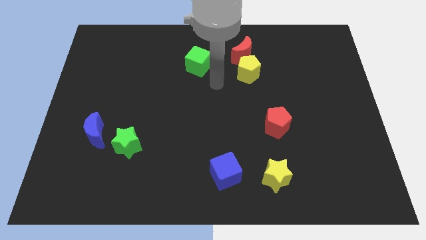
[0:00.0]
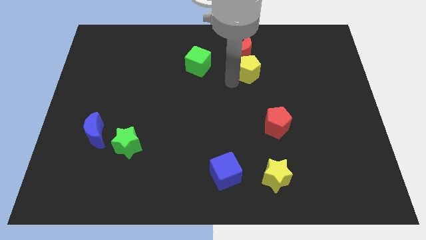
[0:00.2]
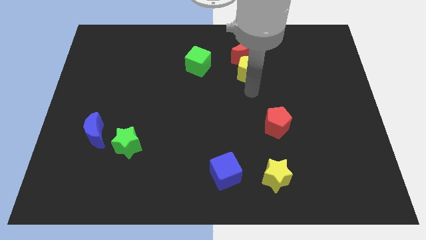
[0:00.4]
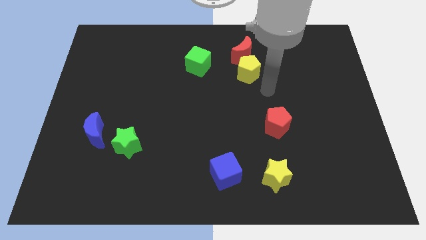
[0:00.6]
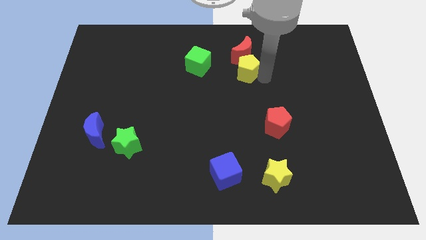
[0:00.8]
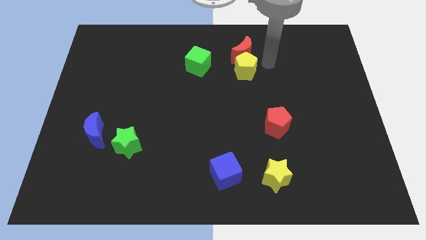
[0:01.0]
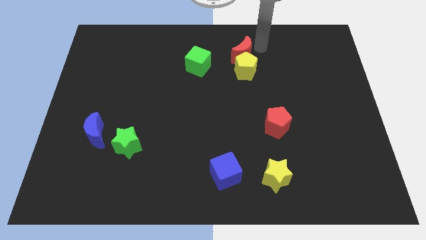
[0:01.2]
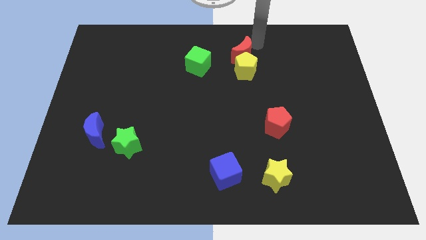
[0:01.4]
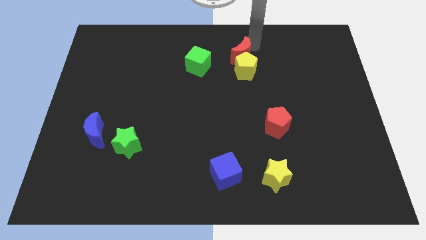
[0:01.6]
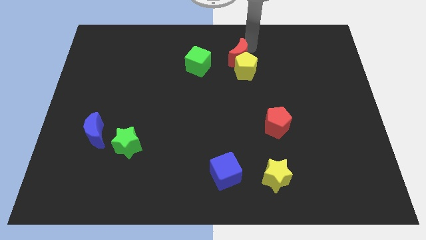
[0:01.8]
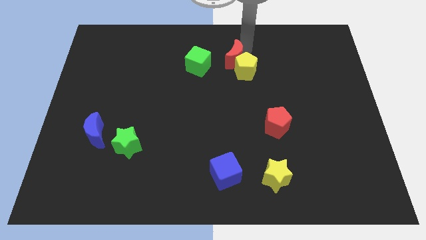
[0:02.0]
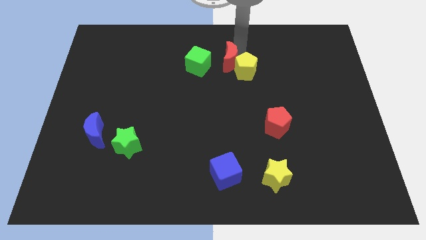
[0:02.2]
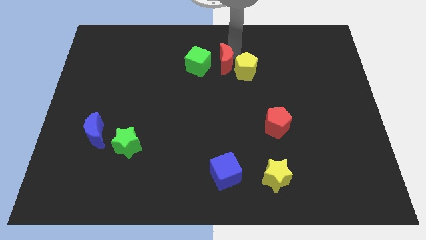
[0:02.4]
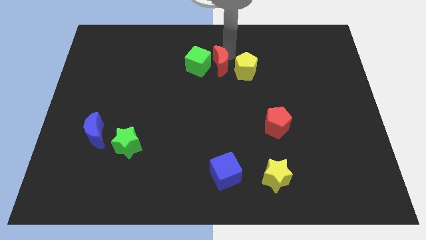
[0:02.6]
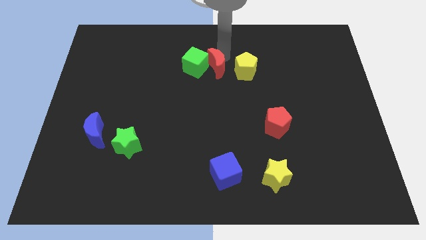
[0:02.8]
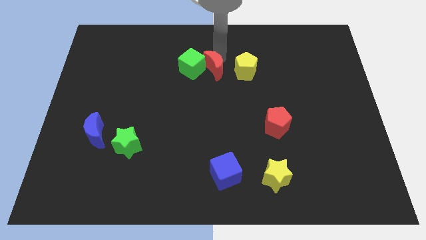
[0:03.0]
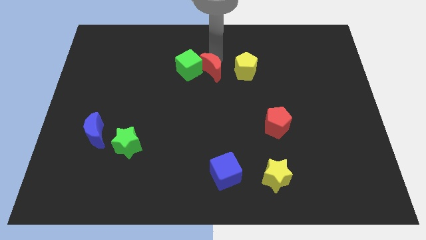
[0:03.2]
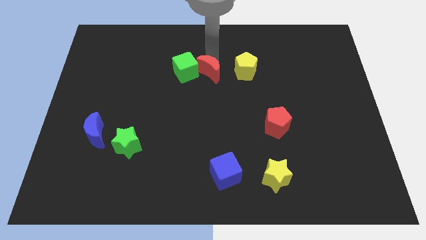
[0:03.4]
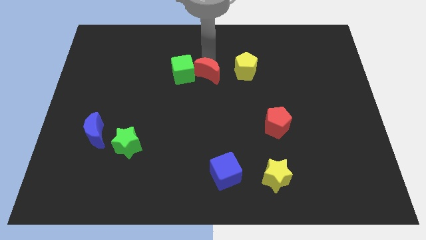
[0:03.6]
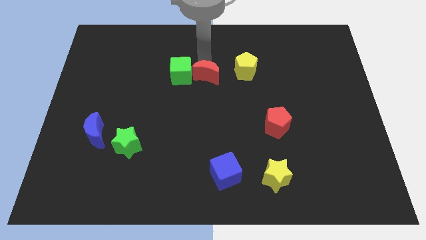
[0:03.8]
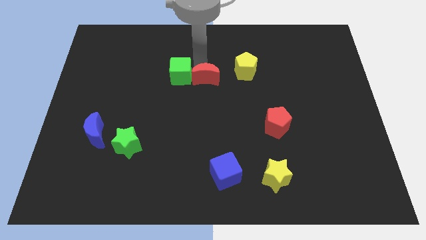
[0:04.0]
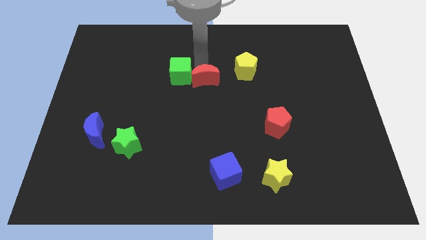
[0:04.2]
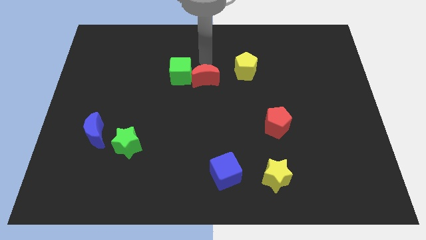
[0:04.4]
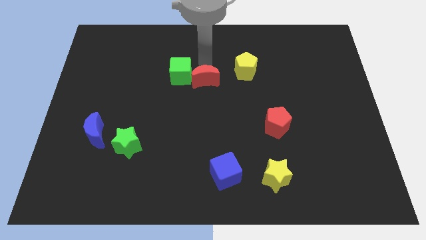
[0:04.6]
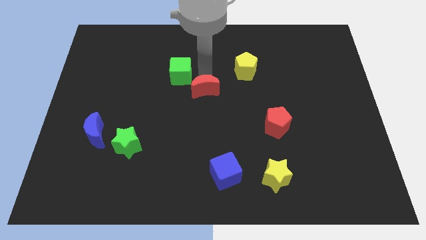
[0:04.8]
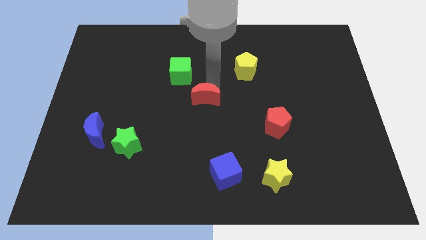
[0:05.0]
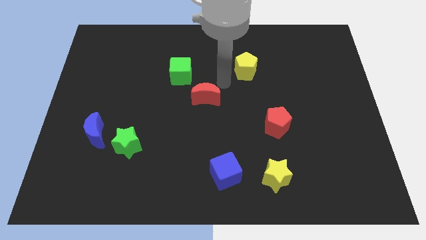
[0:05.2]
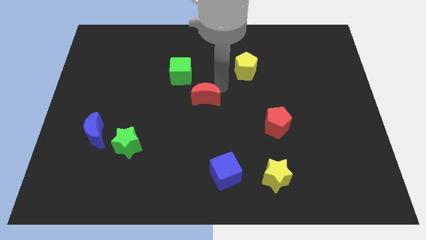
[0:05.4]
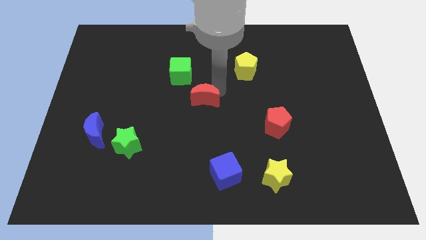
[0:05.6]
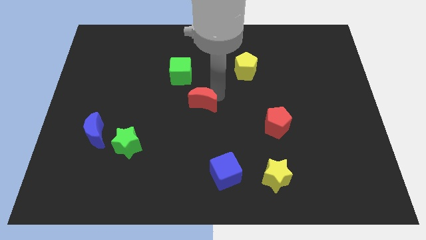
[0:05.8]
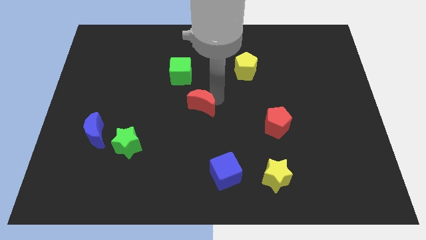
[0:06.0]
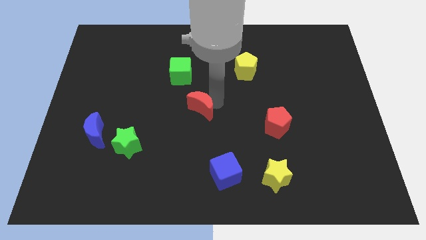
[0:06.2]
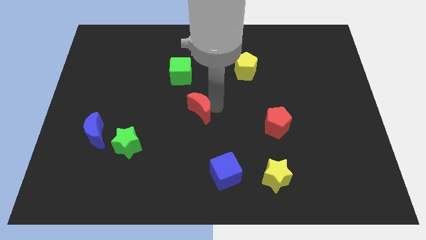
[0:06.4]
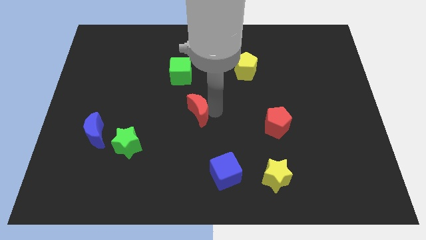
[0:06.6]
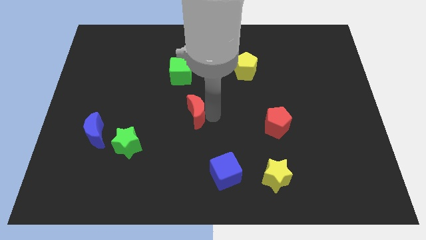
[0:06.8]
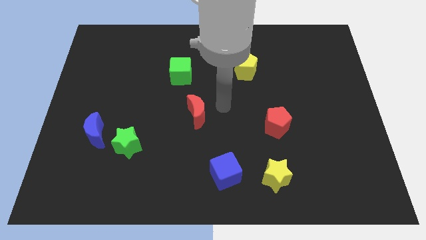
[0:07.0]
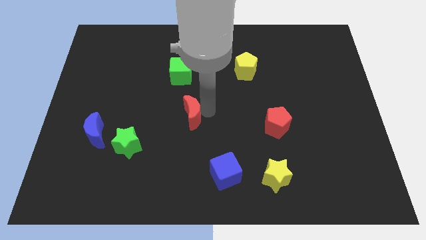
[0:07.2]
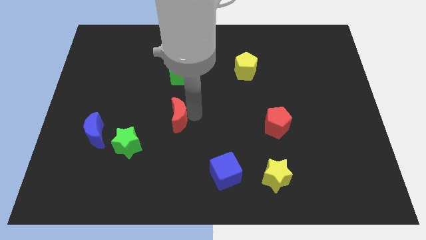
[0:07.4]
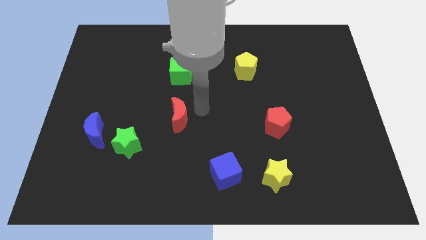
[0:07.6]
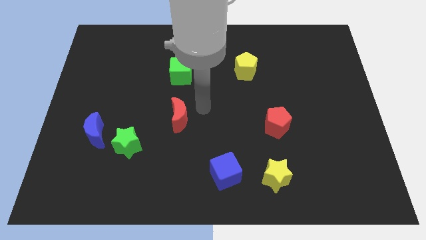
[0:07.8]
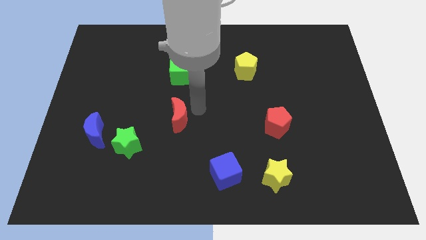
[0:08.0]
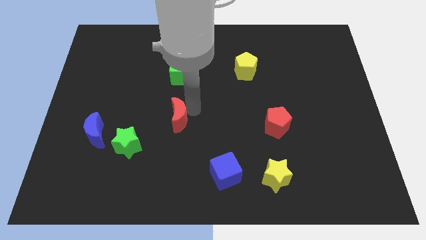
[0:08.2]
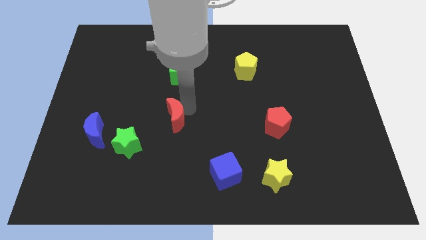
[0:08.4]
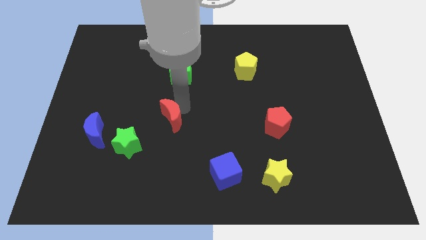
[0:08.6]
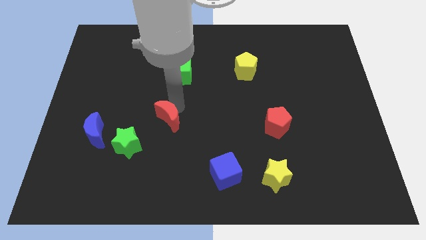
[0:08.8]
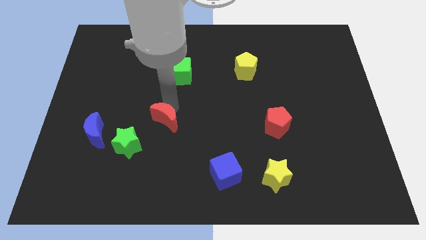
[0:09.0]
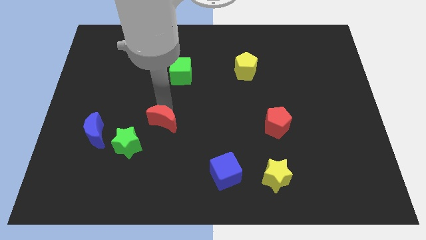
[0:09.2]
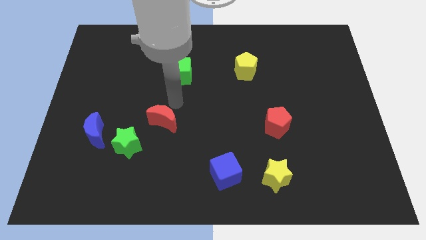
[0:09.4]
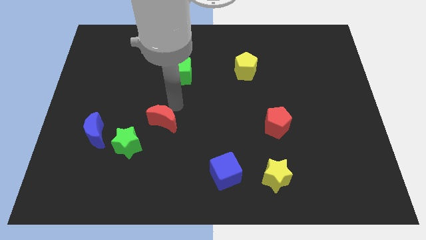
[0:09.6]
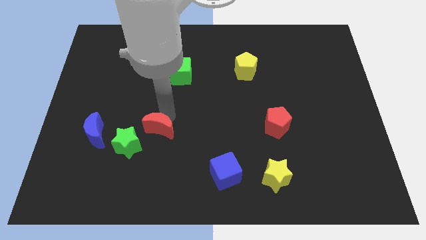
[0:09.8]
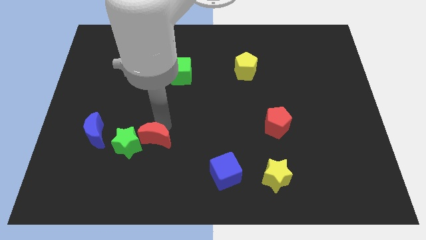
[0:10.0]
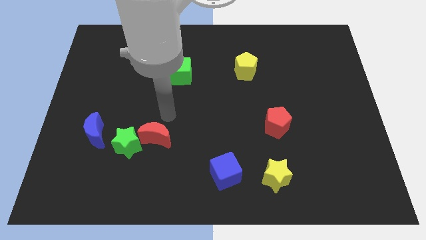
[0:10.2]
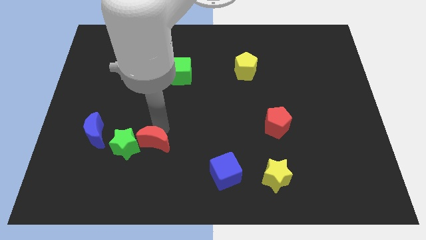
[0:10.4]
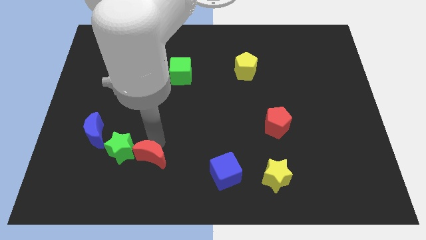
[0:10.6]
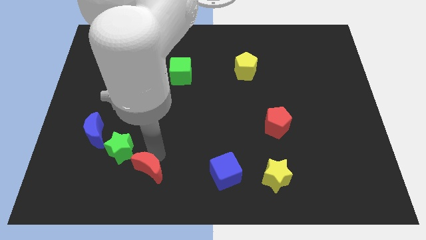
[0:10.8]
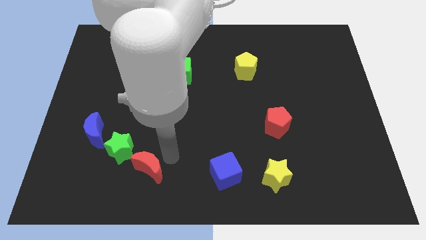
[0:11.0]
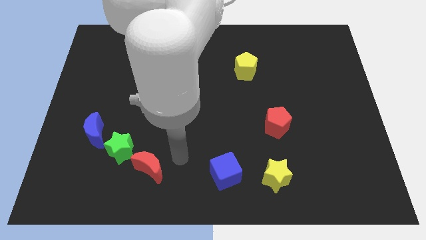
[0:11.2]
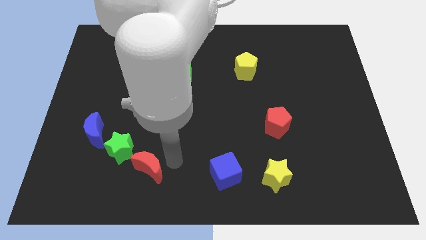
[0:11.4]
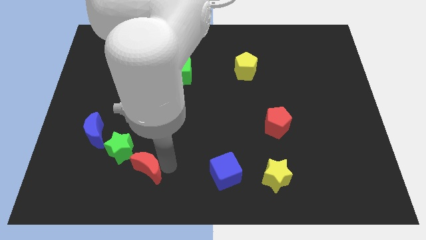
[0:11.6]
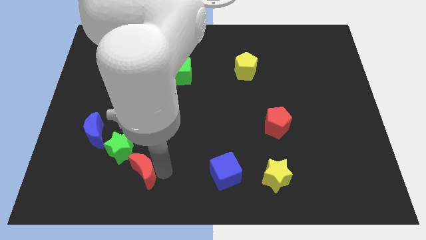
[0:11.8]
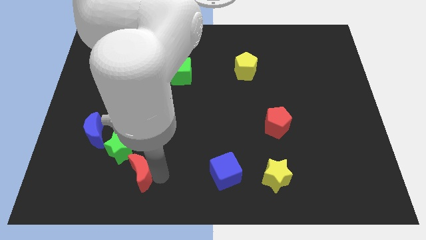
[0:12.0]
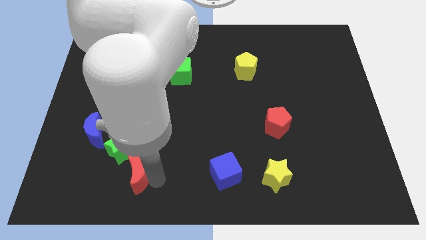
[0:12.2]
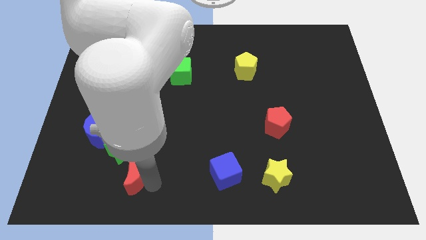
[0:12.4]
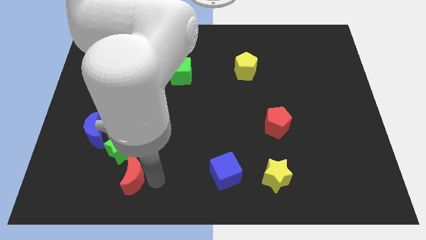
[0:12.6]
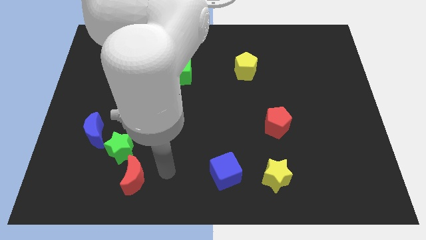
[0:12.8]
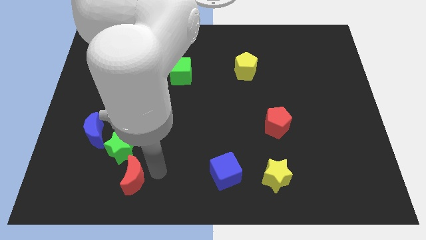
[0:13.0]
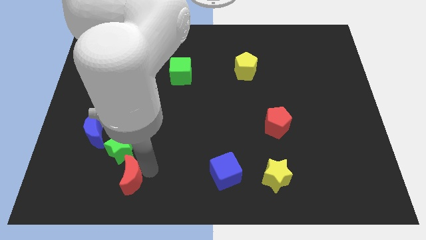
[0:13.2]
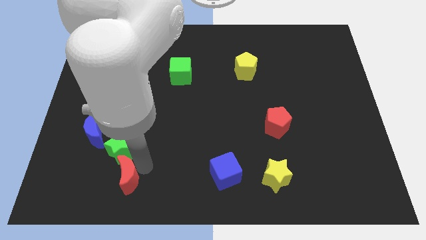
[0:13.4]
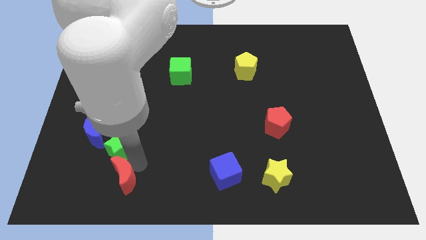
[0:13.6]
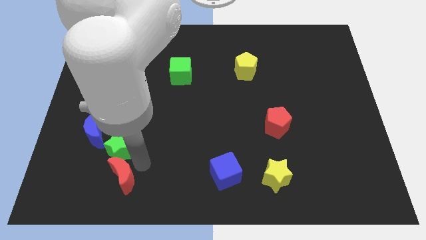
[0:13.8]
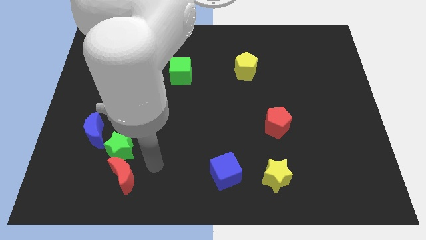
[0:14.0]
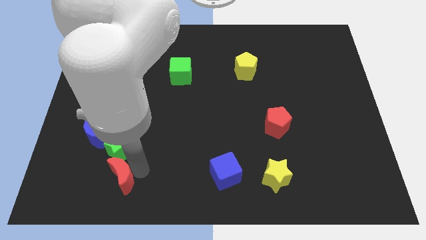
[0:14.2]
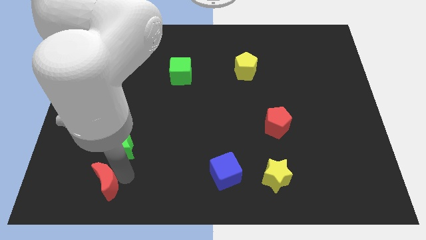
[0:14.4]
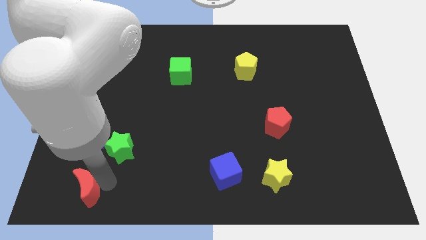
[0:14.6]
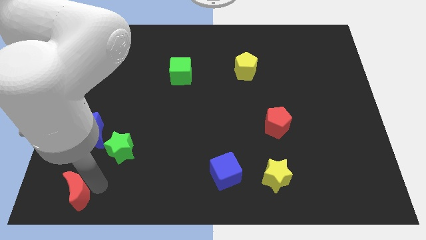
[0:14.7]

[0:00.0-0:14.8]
slide the red moon to the bottom left corner

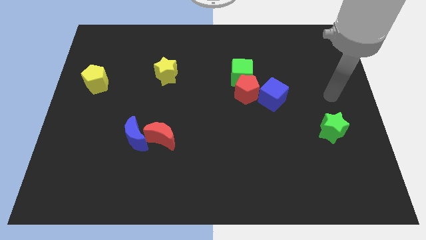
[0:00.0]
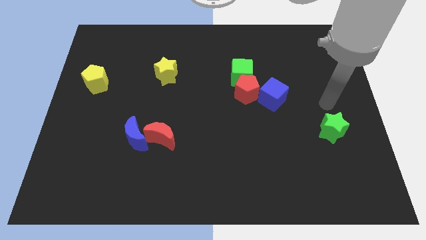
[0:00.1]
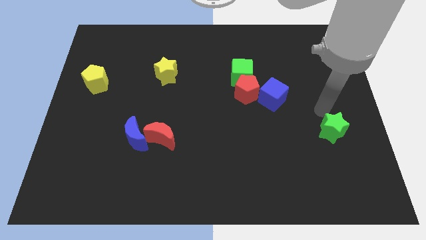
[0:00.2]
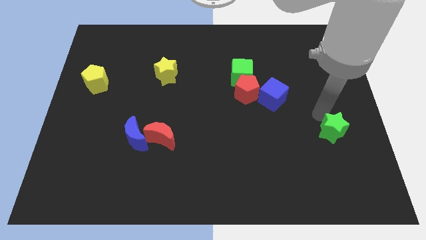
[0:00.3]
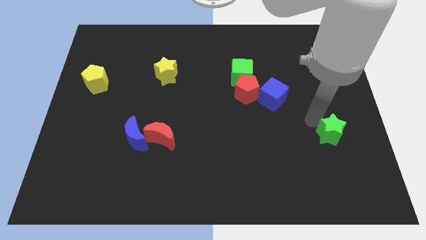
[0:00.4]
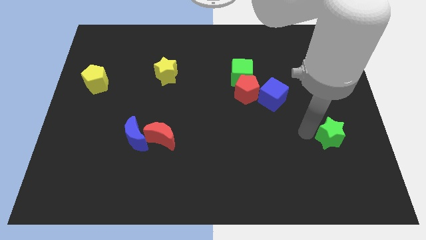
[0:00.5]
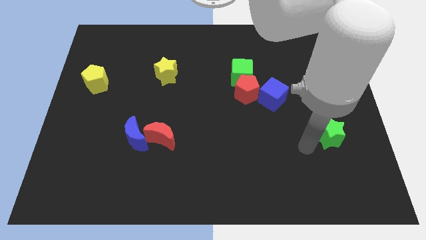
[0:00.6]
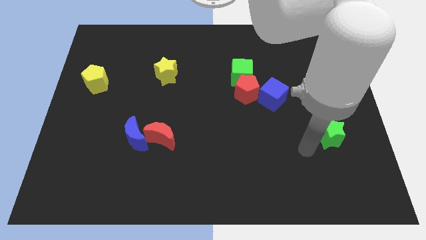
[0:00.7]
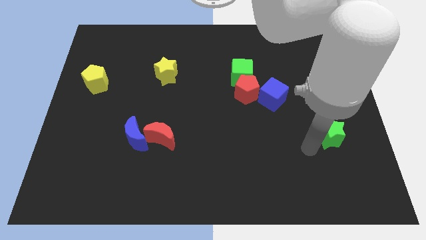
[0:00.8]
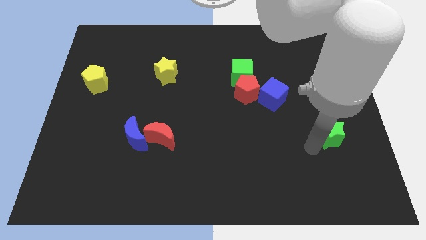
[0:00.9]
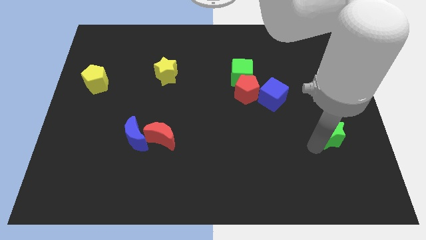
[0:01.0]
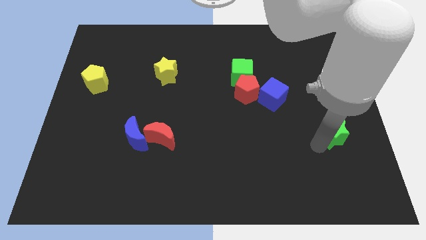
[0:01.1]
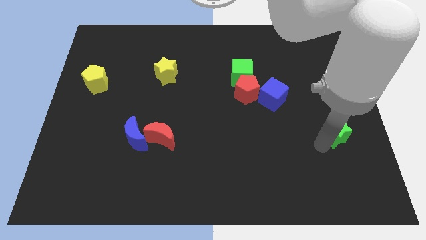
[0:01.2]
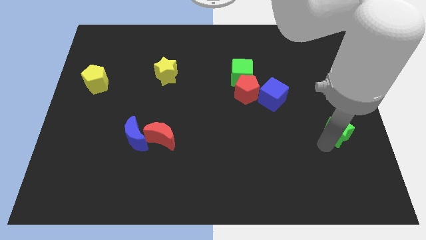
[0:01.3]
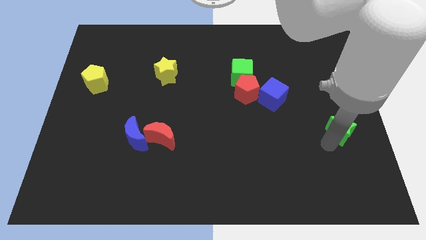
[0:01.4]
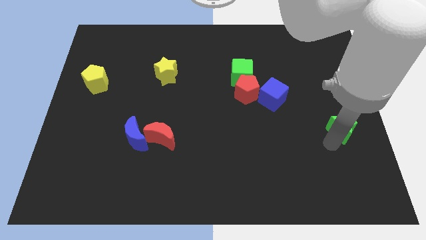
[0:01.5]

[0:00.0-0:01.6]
move the green star to the center right
